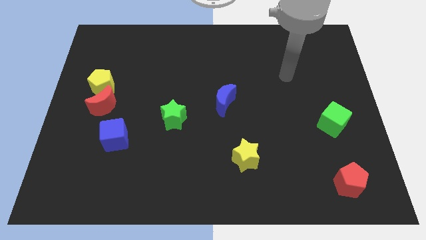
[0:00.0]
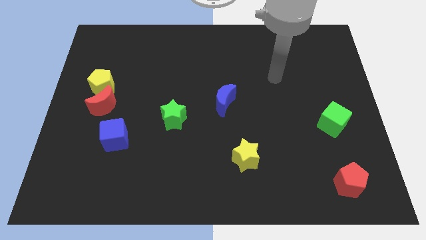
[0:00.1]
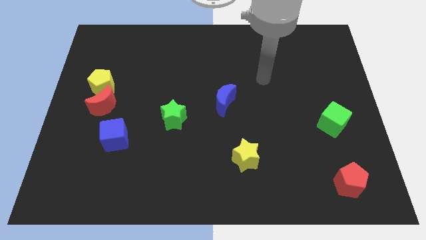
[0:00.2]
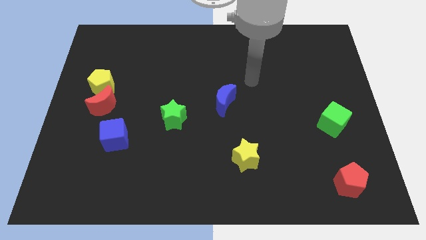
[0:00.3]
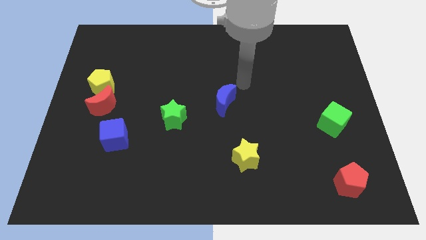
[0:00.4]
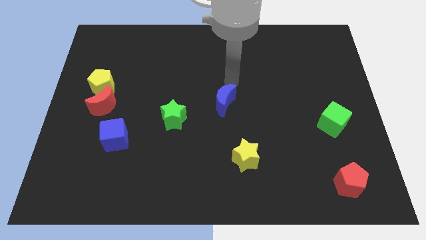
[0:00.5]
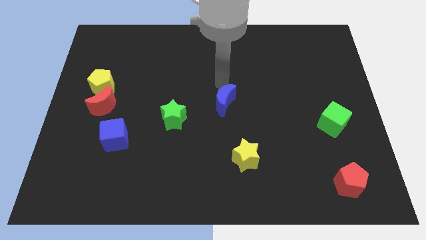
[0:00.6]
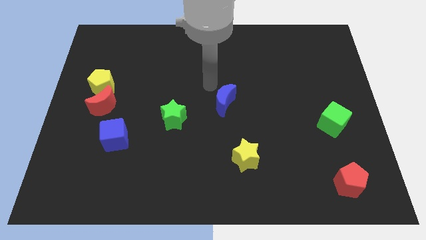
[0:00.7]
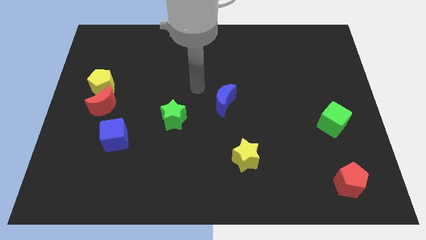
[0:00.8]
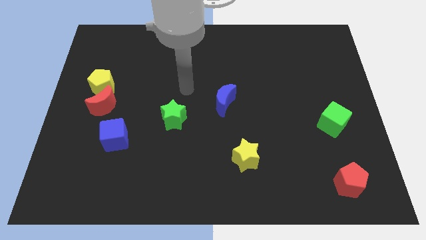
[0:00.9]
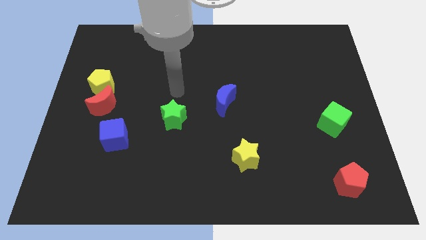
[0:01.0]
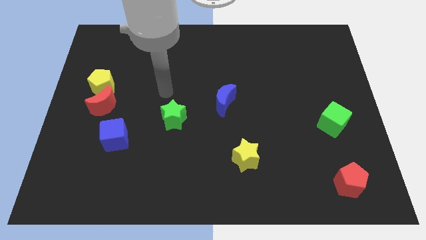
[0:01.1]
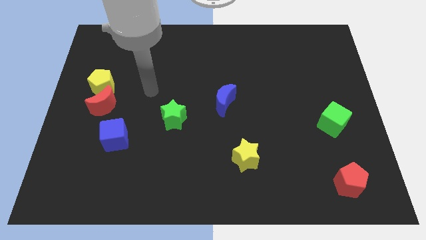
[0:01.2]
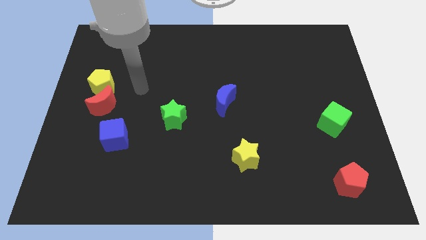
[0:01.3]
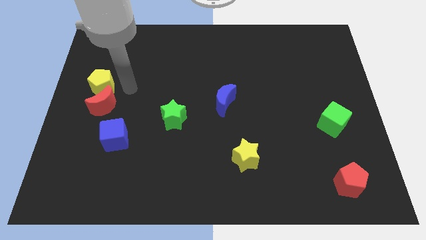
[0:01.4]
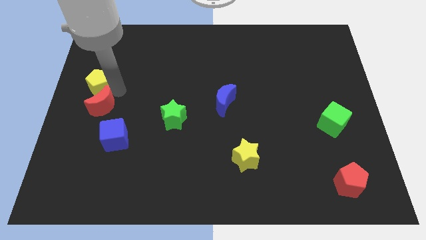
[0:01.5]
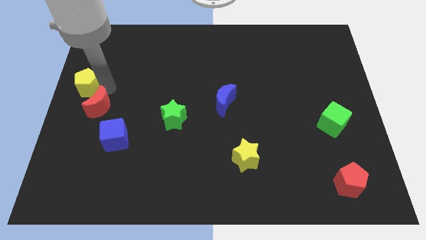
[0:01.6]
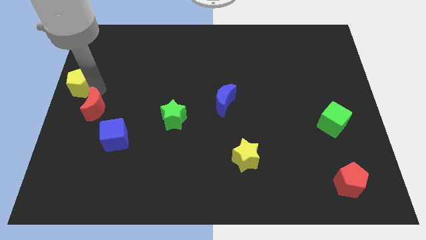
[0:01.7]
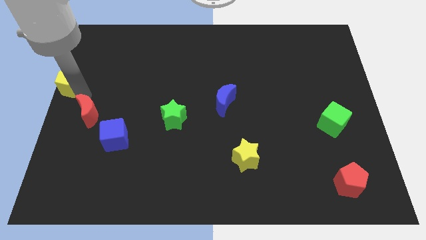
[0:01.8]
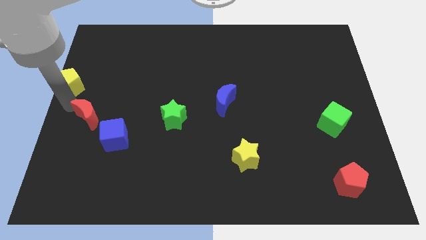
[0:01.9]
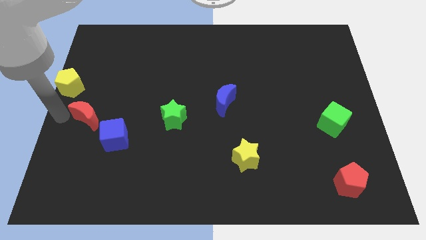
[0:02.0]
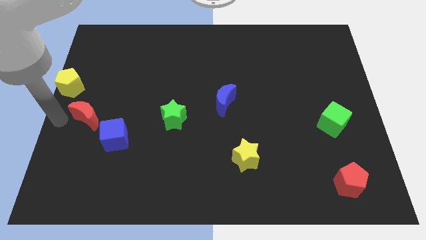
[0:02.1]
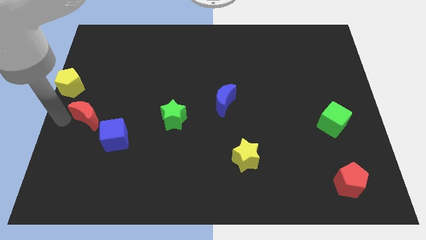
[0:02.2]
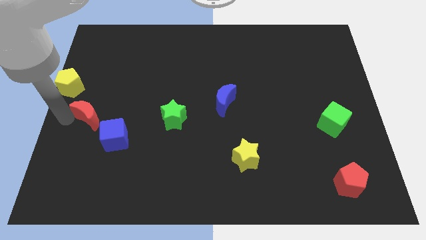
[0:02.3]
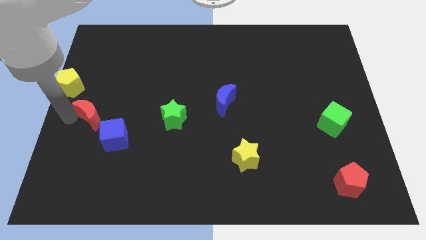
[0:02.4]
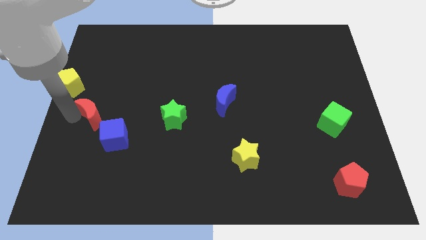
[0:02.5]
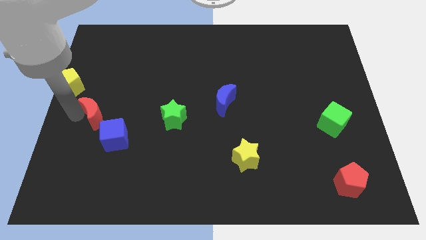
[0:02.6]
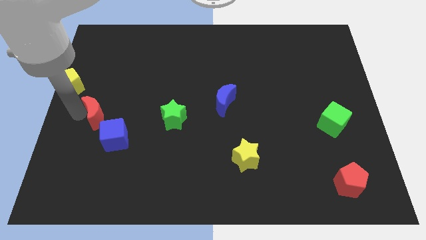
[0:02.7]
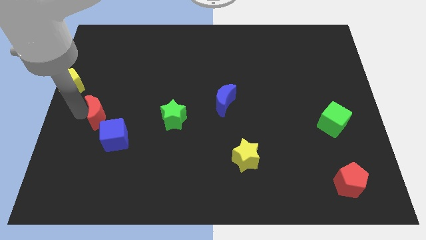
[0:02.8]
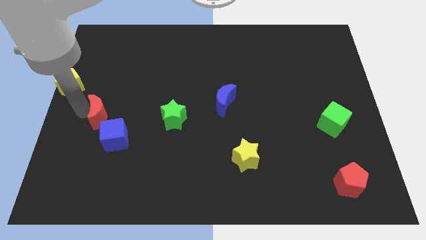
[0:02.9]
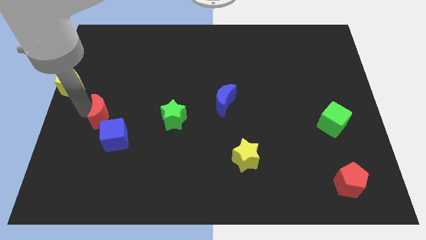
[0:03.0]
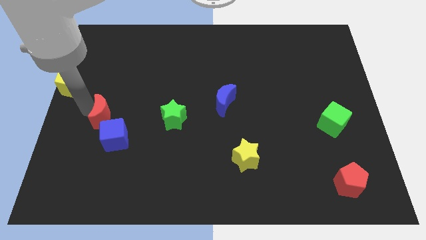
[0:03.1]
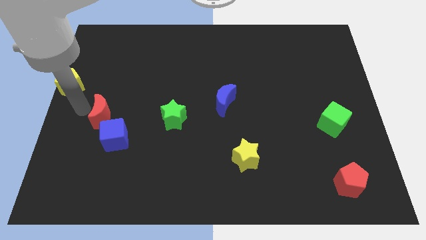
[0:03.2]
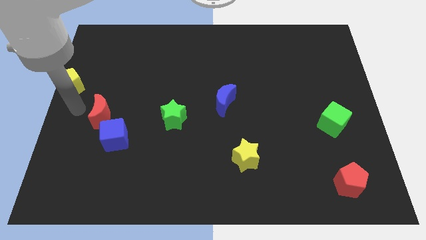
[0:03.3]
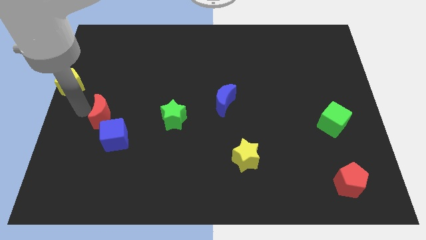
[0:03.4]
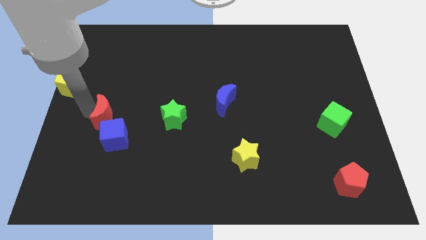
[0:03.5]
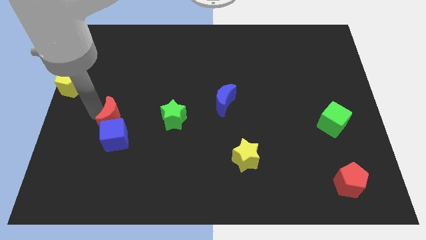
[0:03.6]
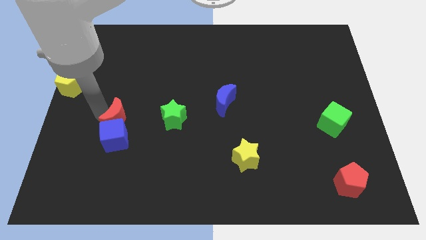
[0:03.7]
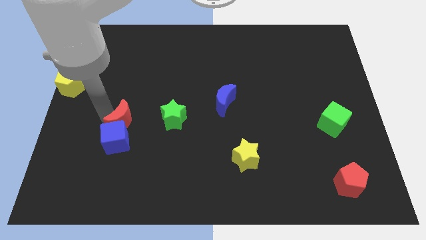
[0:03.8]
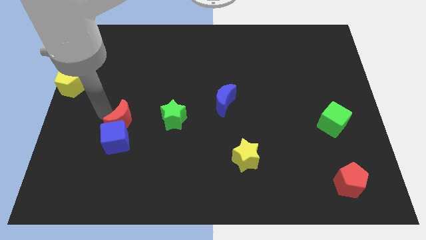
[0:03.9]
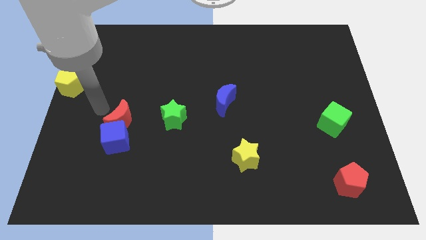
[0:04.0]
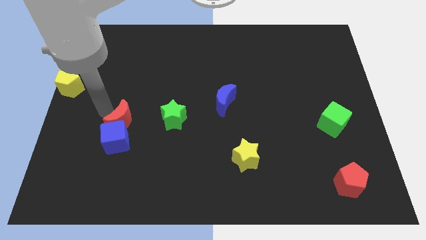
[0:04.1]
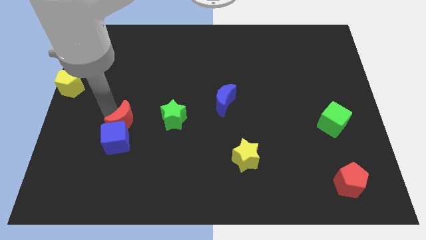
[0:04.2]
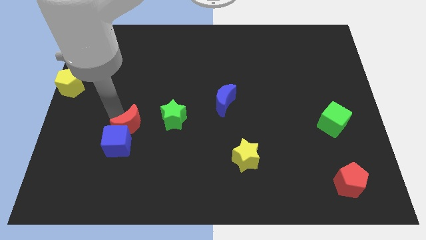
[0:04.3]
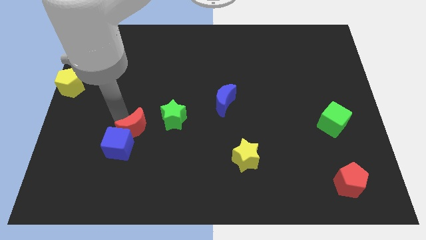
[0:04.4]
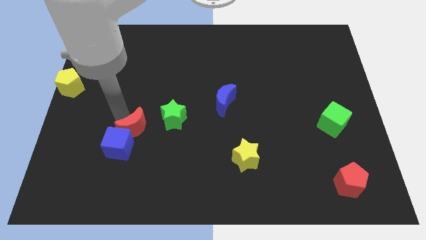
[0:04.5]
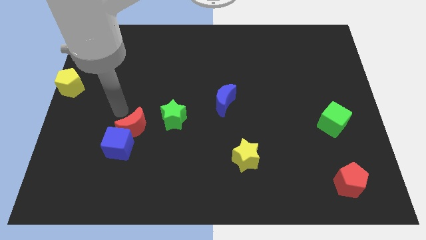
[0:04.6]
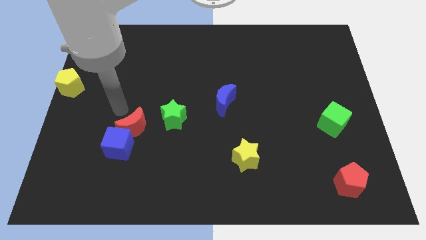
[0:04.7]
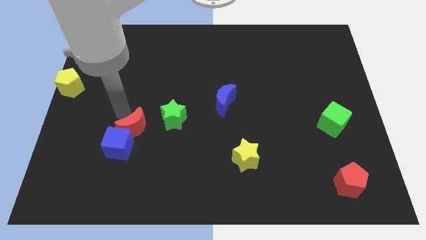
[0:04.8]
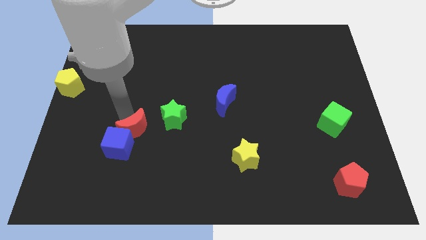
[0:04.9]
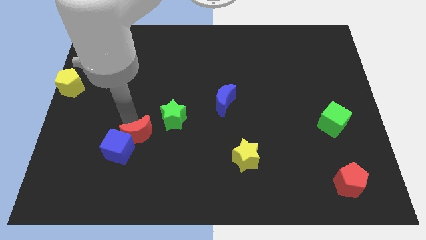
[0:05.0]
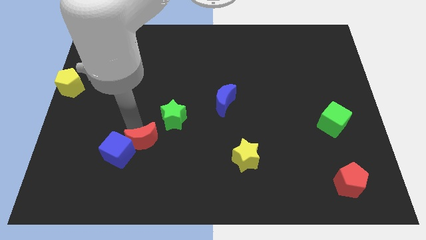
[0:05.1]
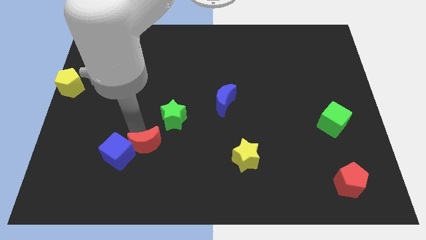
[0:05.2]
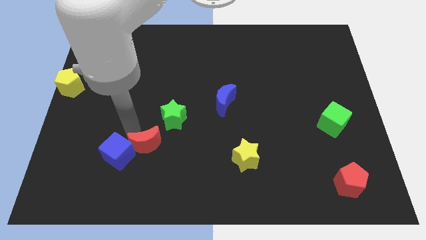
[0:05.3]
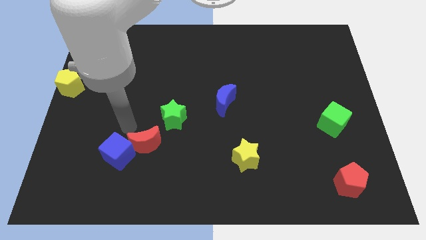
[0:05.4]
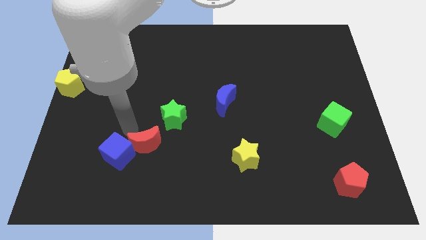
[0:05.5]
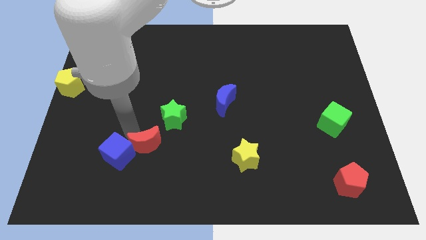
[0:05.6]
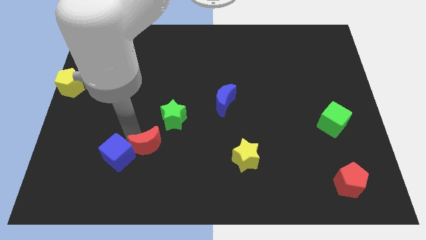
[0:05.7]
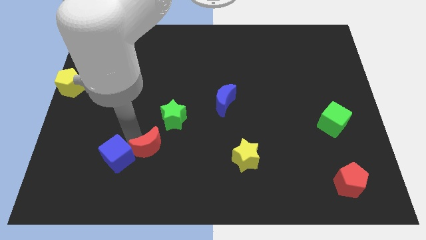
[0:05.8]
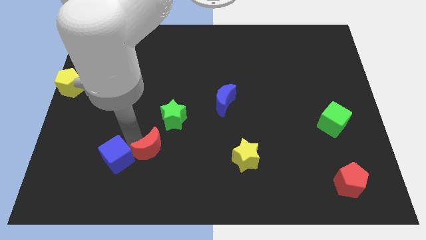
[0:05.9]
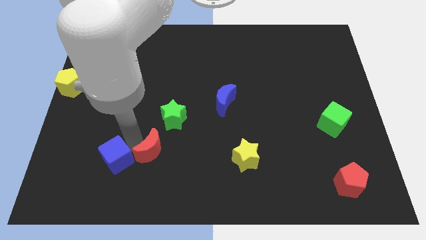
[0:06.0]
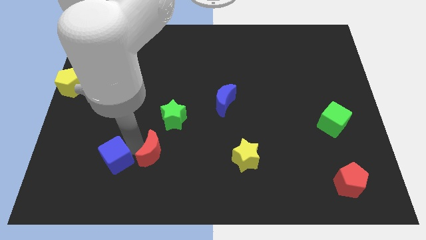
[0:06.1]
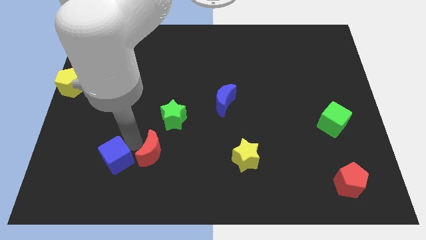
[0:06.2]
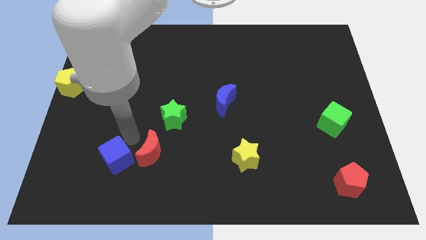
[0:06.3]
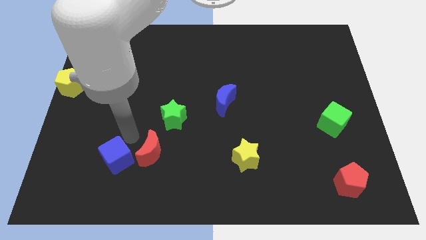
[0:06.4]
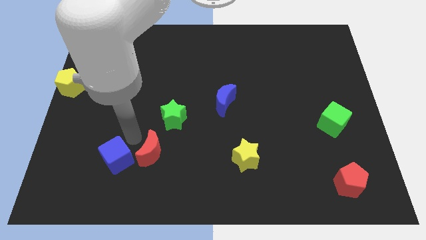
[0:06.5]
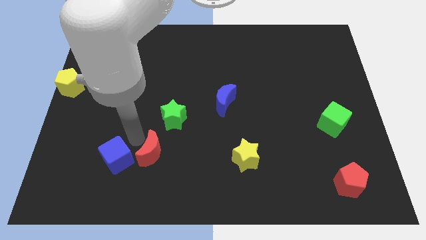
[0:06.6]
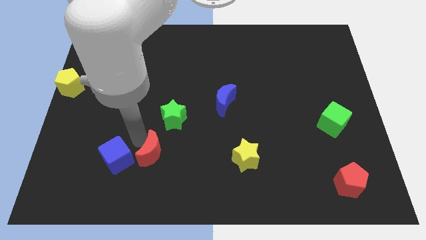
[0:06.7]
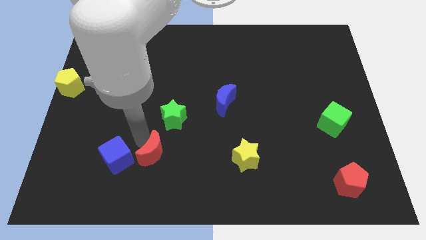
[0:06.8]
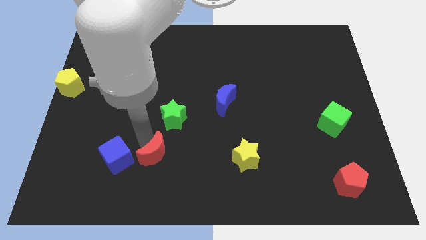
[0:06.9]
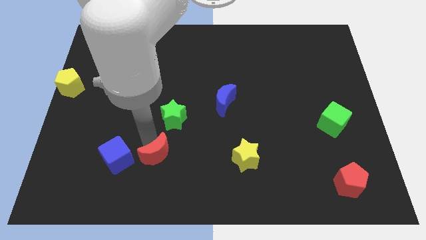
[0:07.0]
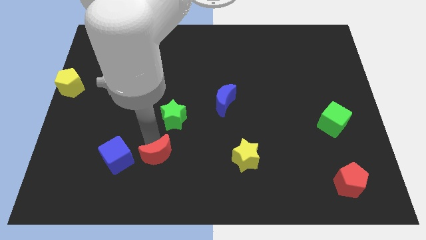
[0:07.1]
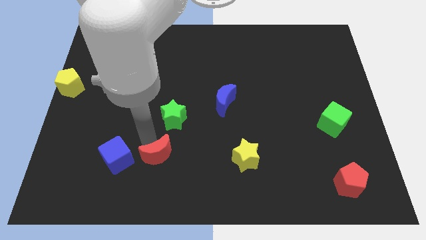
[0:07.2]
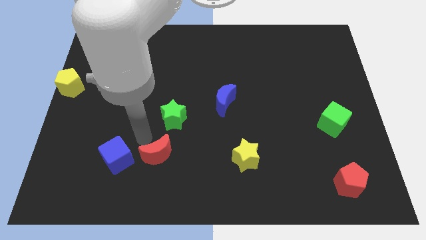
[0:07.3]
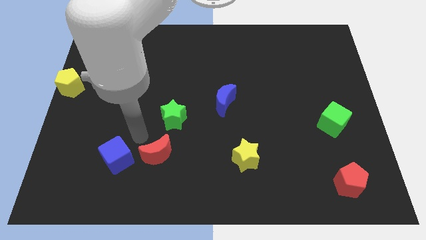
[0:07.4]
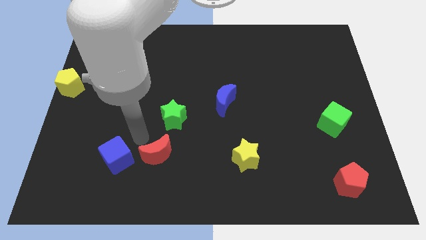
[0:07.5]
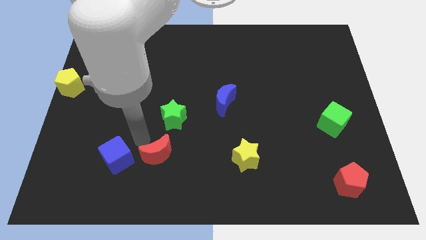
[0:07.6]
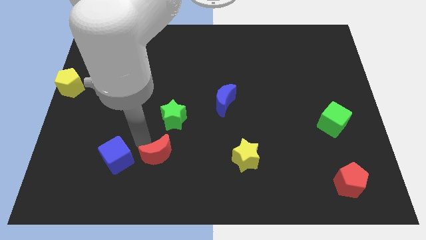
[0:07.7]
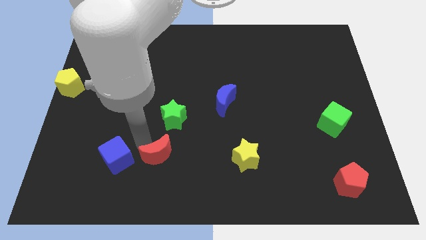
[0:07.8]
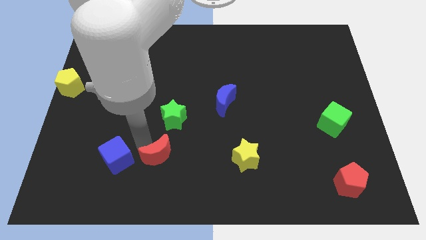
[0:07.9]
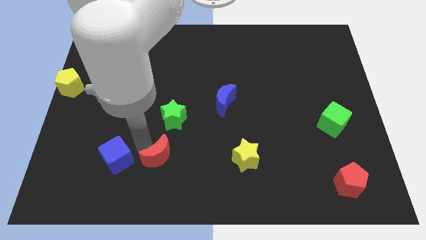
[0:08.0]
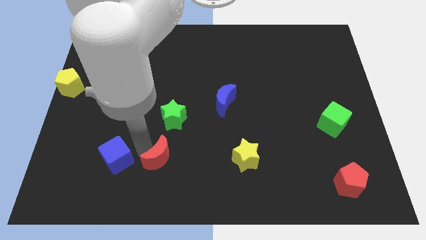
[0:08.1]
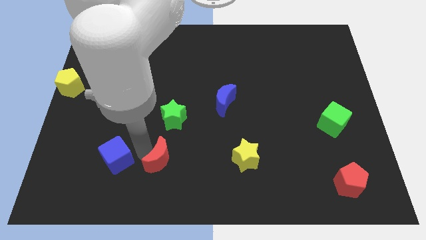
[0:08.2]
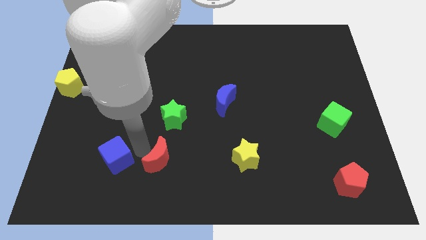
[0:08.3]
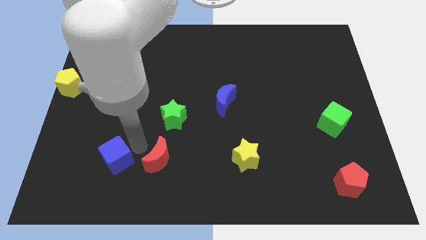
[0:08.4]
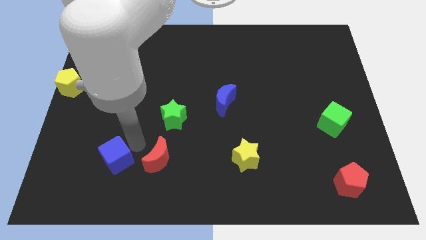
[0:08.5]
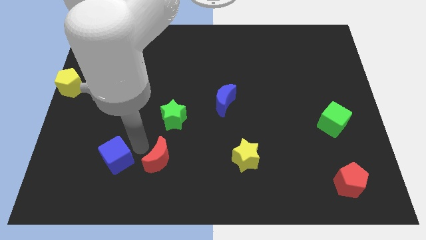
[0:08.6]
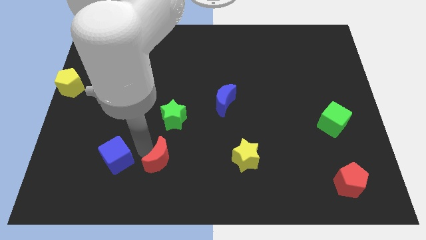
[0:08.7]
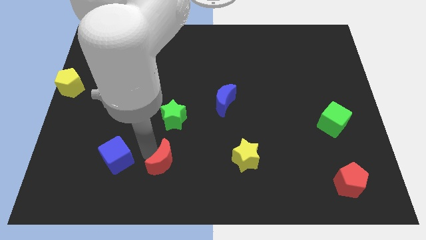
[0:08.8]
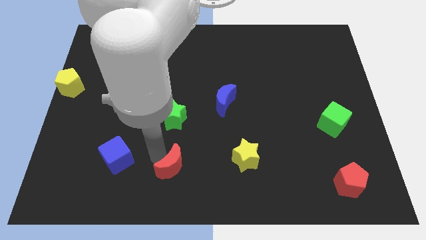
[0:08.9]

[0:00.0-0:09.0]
slide the red moon to the bottom side
